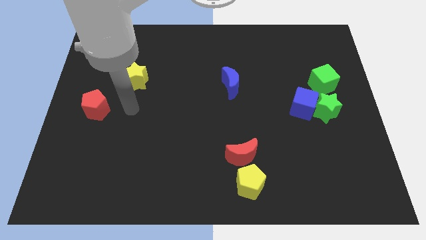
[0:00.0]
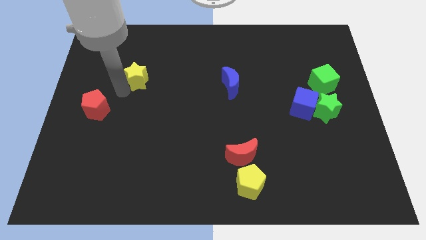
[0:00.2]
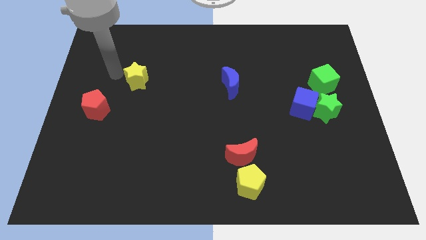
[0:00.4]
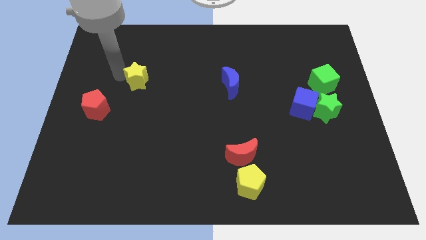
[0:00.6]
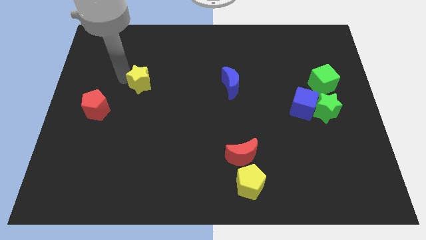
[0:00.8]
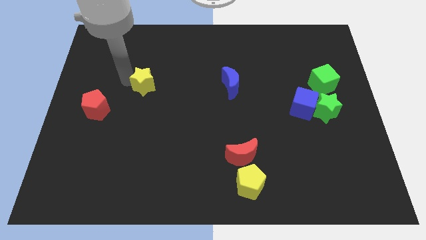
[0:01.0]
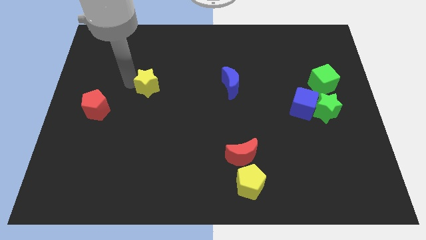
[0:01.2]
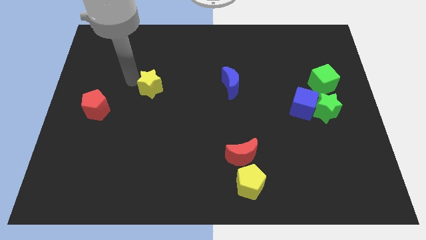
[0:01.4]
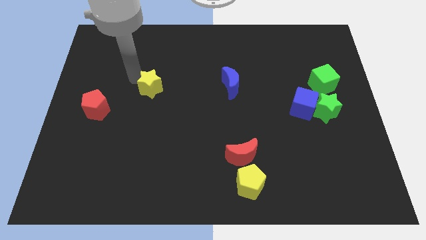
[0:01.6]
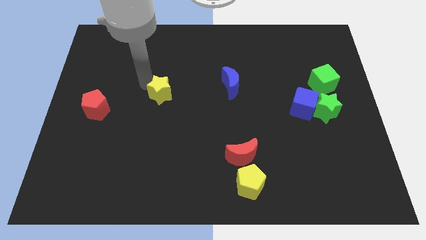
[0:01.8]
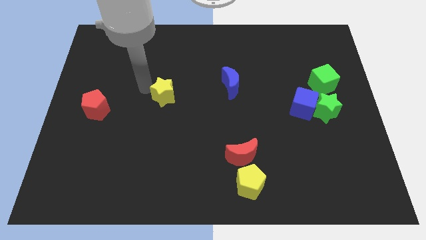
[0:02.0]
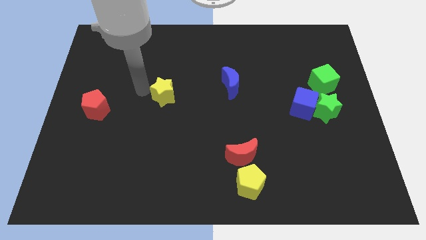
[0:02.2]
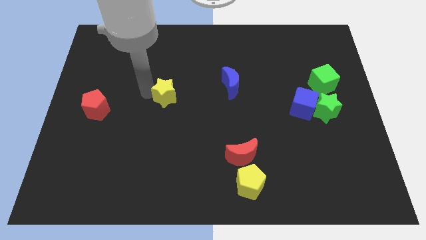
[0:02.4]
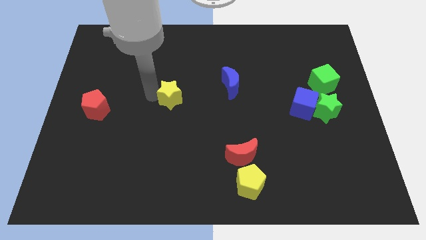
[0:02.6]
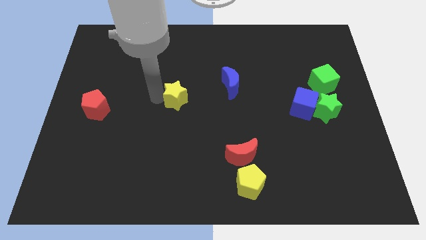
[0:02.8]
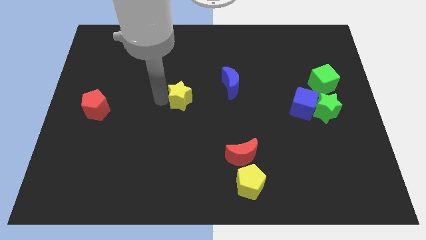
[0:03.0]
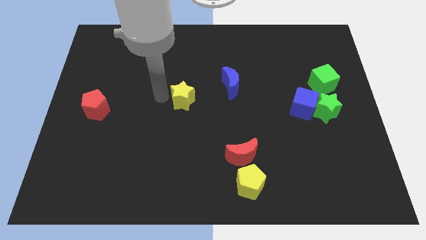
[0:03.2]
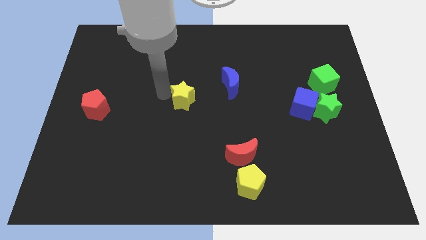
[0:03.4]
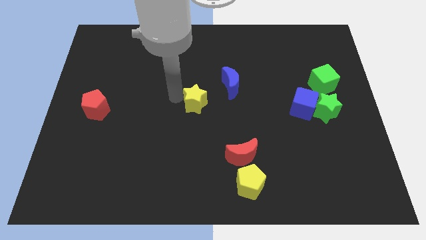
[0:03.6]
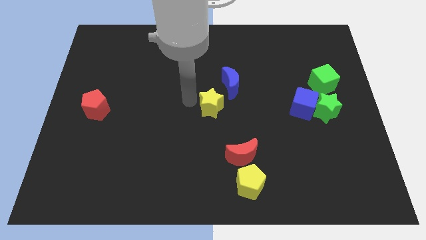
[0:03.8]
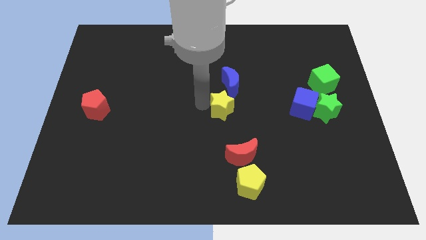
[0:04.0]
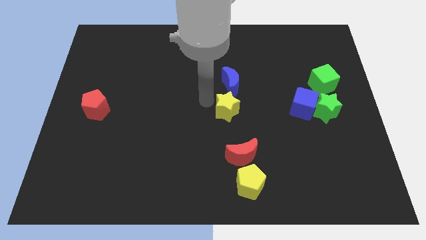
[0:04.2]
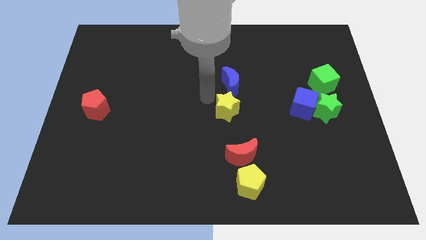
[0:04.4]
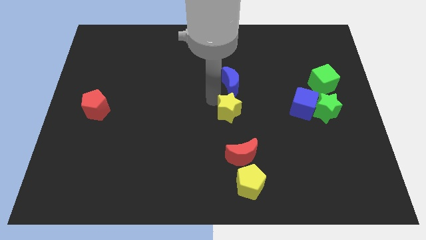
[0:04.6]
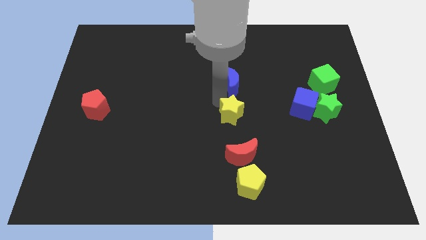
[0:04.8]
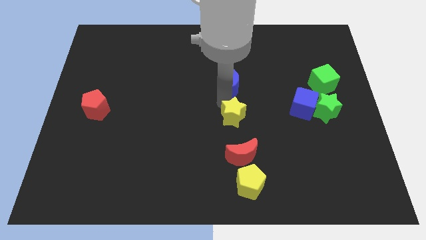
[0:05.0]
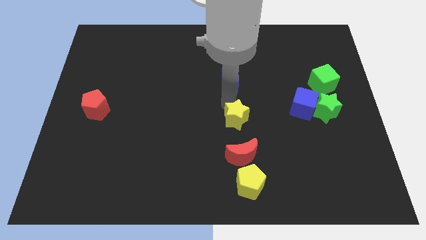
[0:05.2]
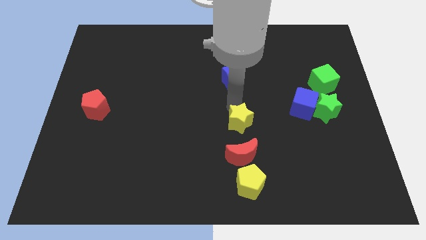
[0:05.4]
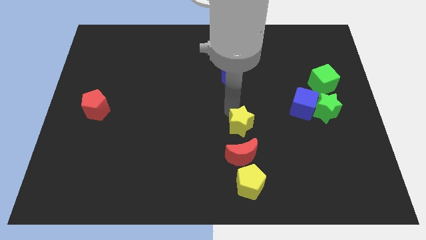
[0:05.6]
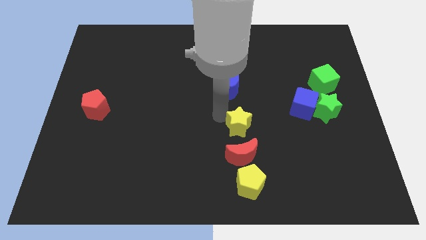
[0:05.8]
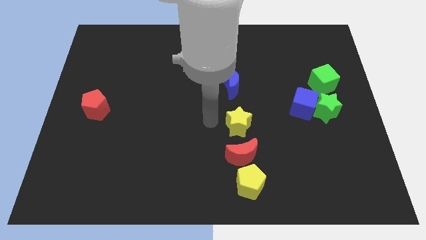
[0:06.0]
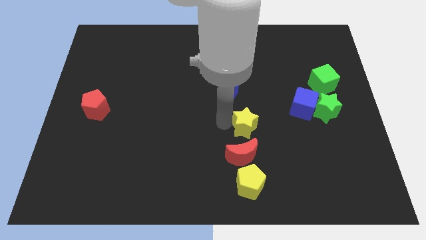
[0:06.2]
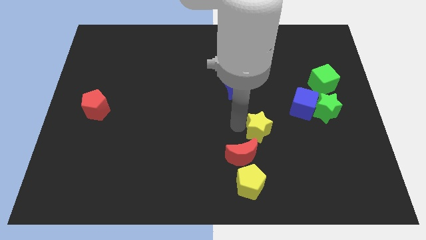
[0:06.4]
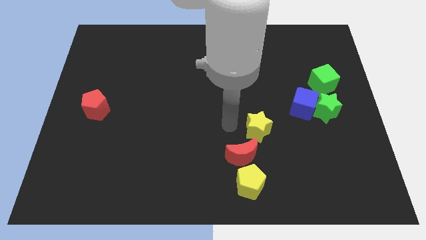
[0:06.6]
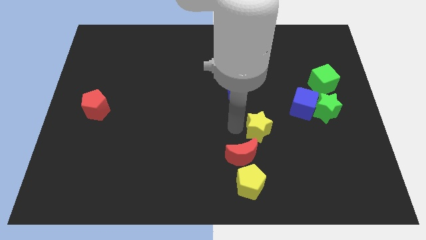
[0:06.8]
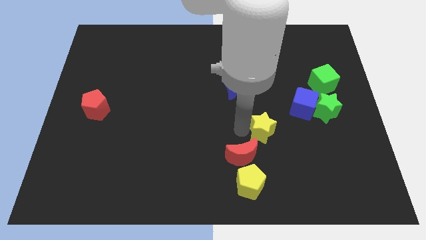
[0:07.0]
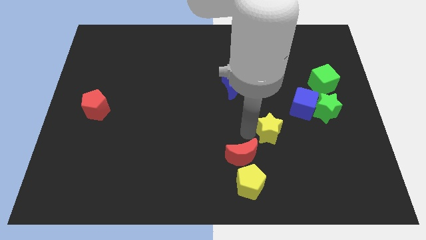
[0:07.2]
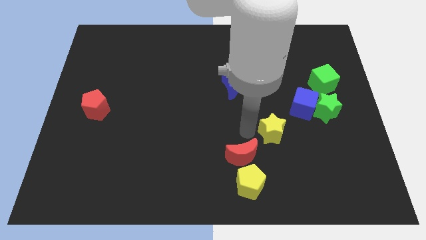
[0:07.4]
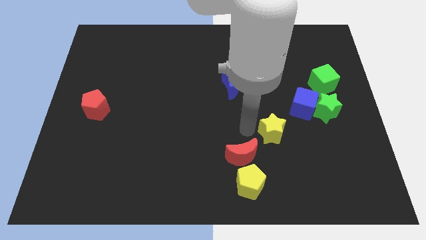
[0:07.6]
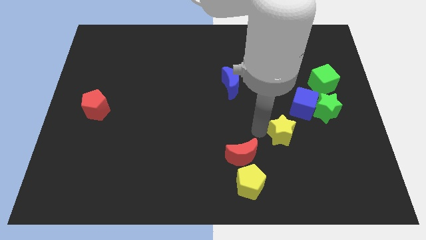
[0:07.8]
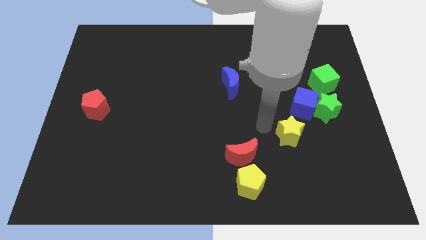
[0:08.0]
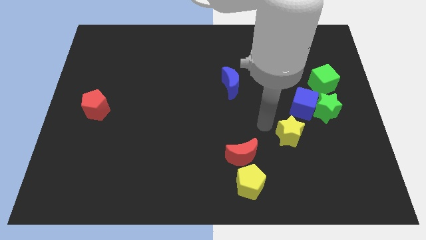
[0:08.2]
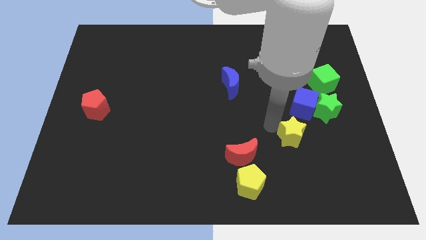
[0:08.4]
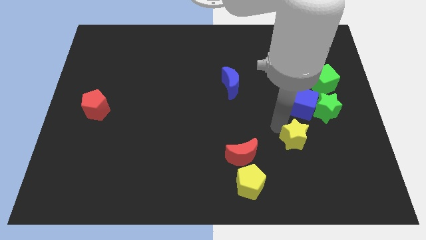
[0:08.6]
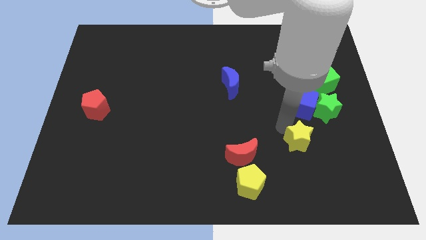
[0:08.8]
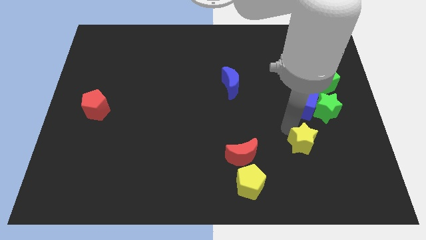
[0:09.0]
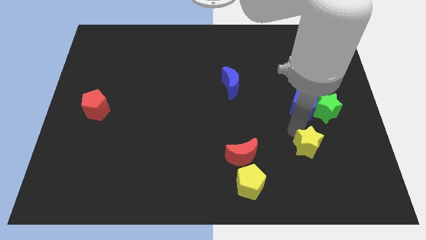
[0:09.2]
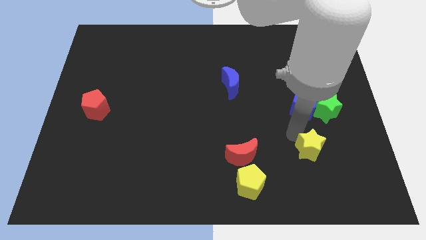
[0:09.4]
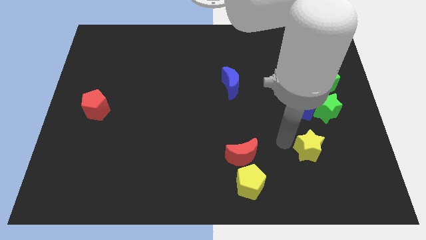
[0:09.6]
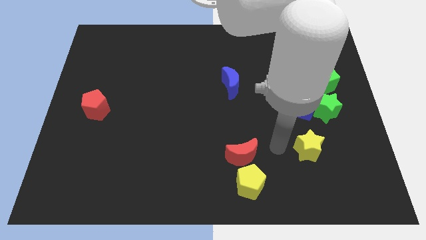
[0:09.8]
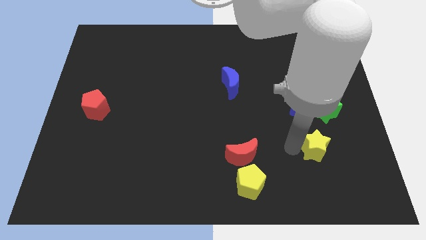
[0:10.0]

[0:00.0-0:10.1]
move the yellow star to the bottom side of the green star

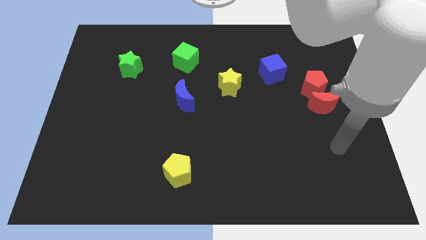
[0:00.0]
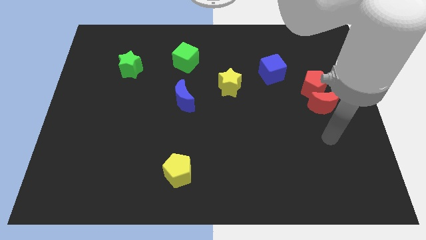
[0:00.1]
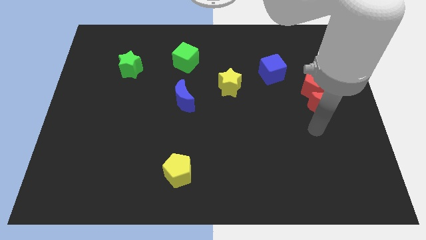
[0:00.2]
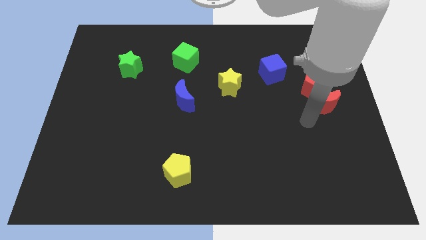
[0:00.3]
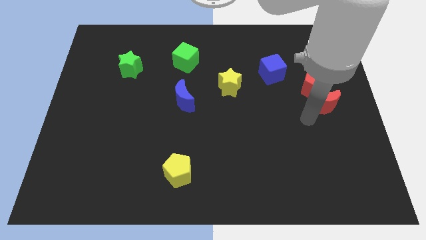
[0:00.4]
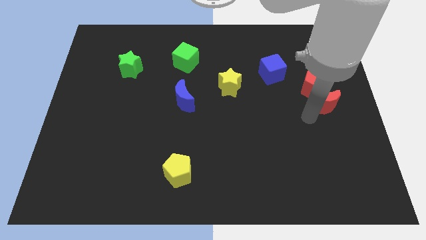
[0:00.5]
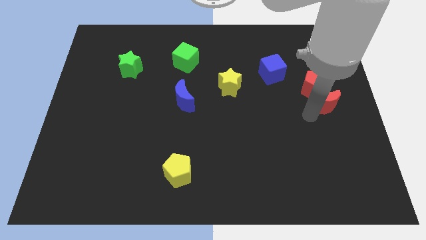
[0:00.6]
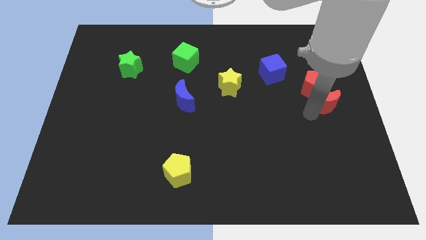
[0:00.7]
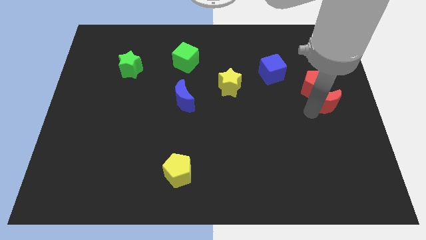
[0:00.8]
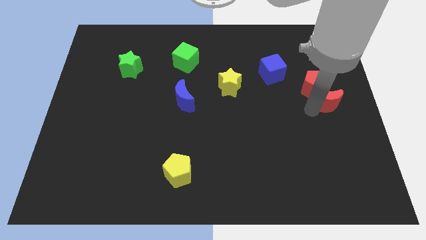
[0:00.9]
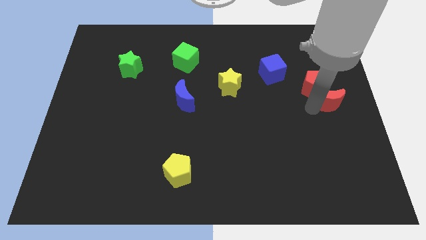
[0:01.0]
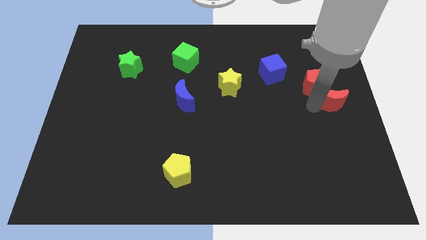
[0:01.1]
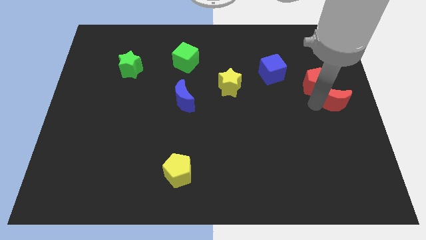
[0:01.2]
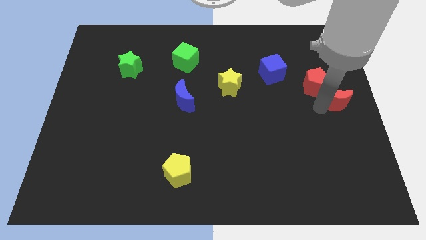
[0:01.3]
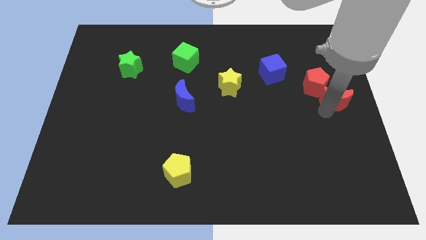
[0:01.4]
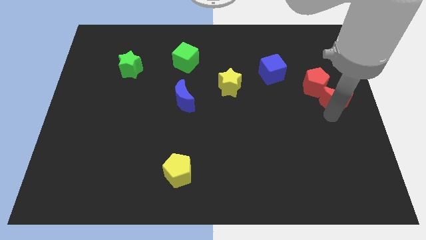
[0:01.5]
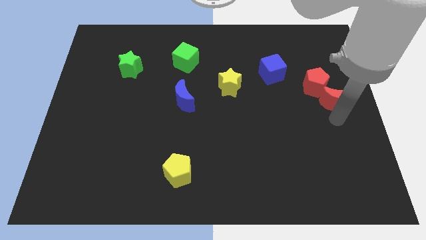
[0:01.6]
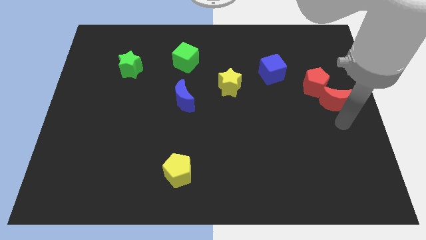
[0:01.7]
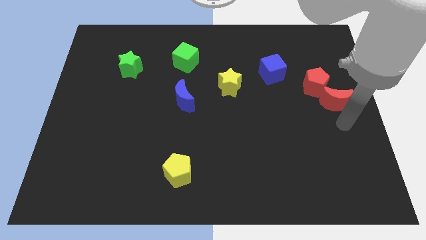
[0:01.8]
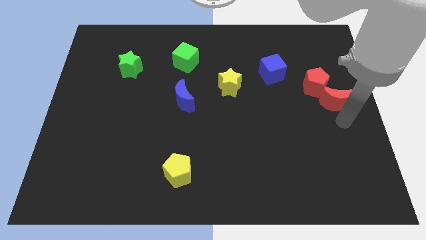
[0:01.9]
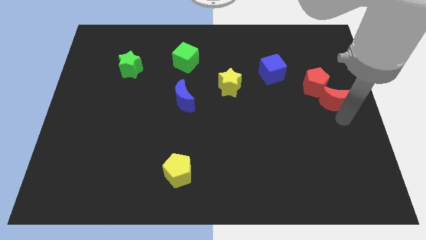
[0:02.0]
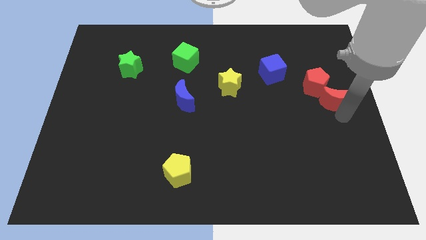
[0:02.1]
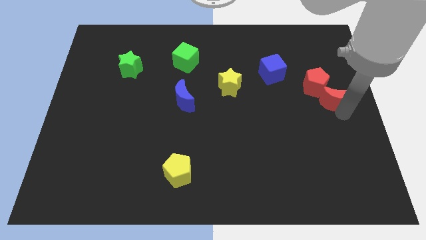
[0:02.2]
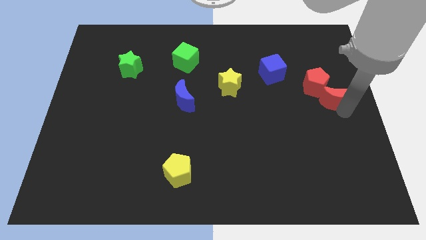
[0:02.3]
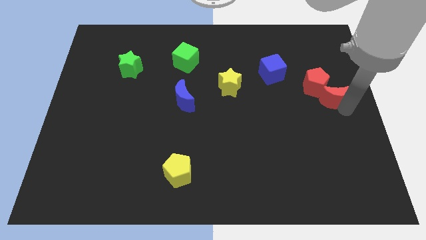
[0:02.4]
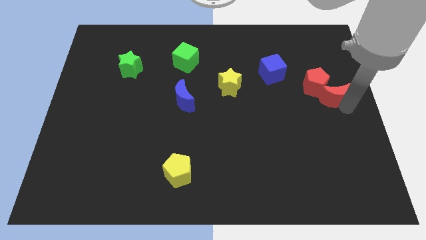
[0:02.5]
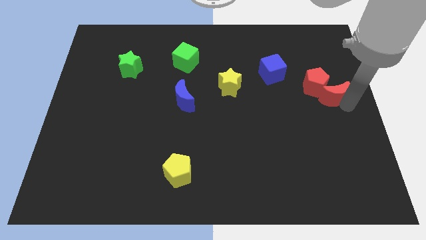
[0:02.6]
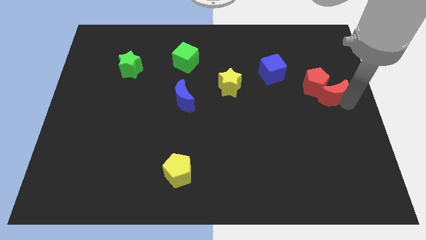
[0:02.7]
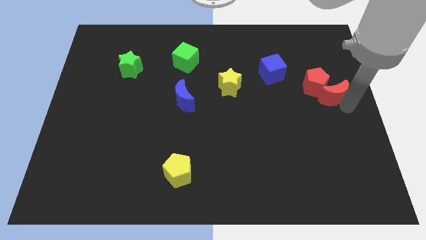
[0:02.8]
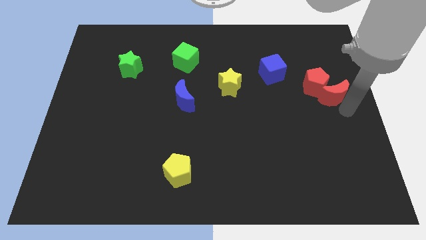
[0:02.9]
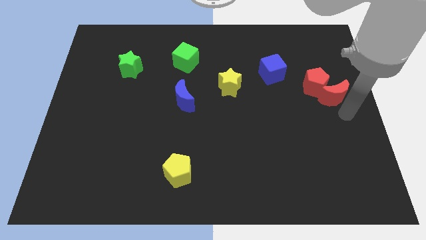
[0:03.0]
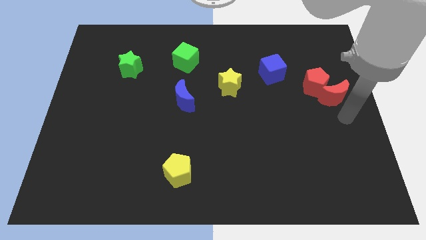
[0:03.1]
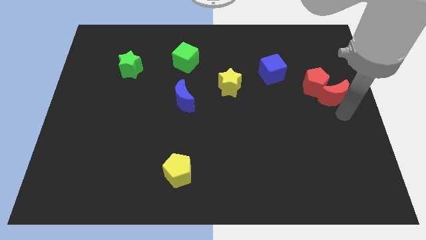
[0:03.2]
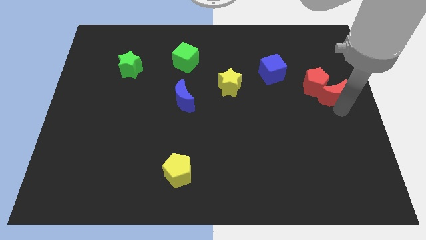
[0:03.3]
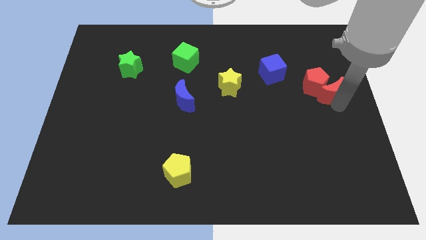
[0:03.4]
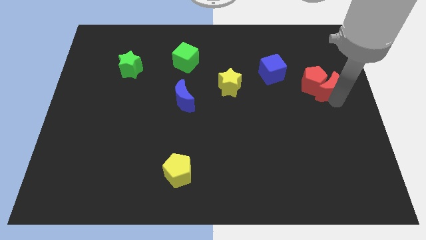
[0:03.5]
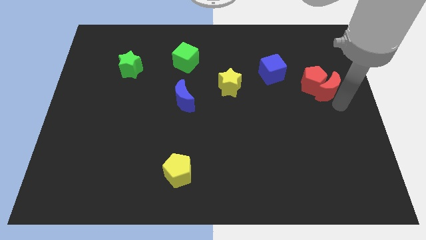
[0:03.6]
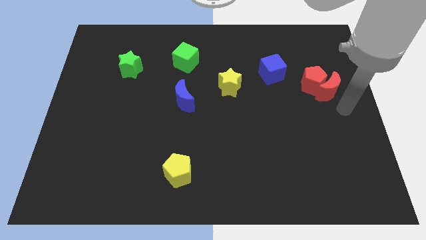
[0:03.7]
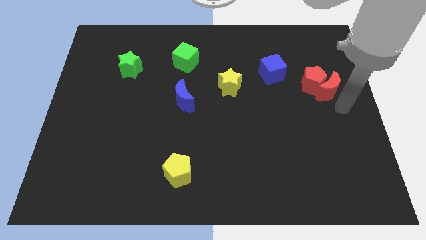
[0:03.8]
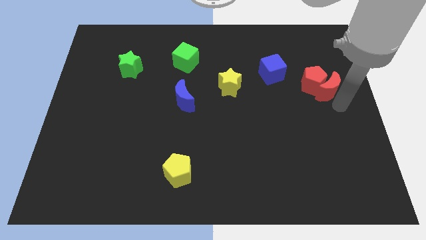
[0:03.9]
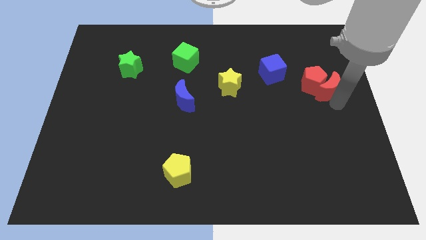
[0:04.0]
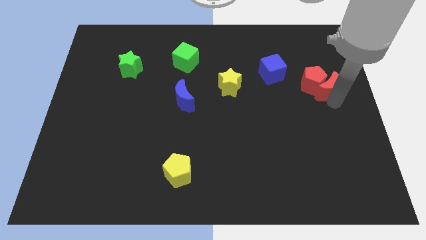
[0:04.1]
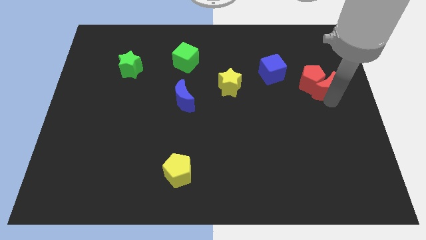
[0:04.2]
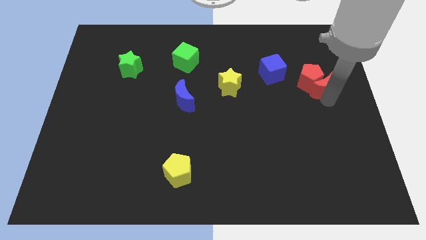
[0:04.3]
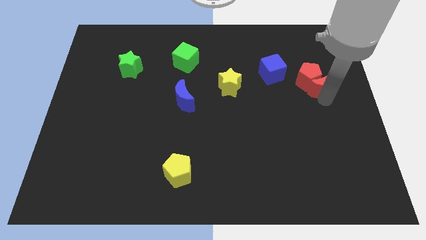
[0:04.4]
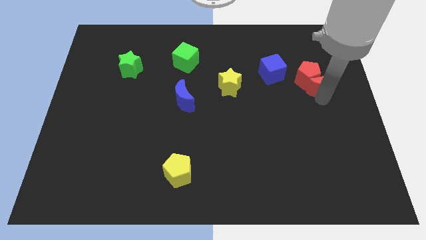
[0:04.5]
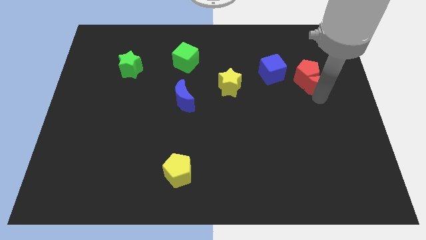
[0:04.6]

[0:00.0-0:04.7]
slide the red moon to the right of the blue cube
